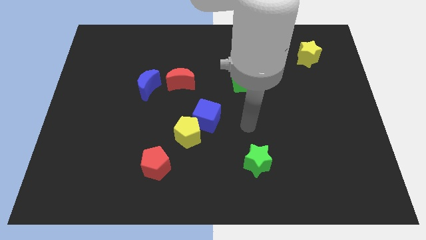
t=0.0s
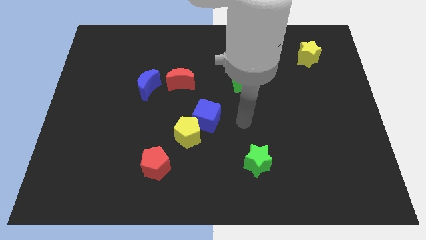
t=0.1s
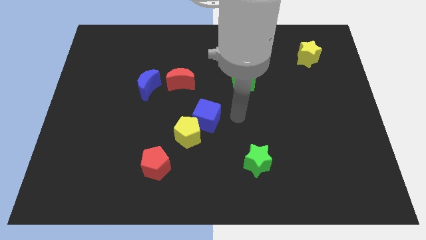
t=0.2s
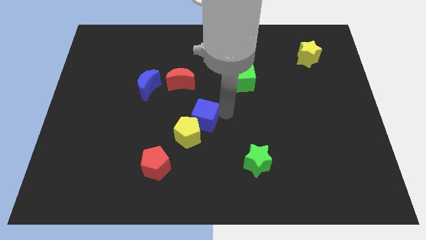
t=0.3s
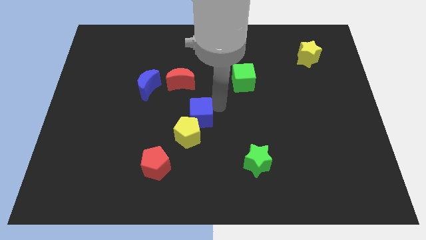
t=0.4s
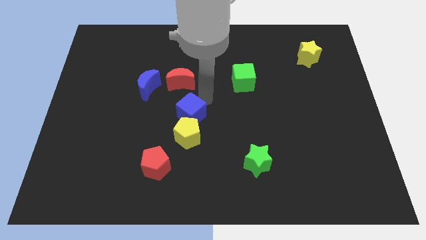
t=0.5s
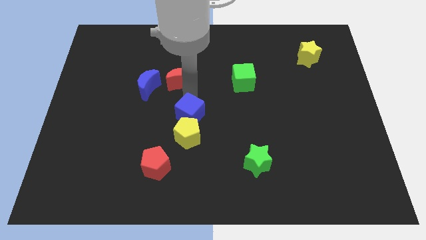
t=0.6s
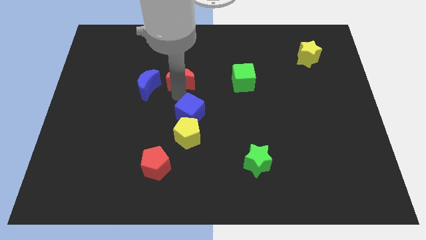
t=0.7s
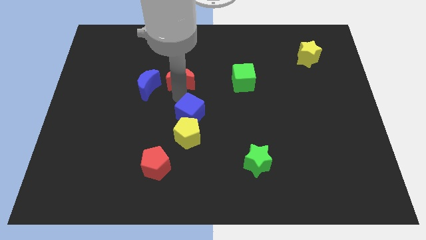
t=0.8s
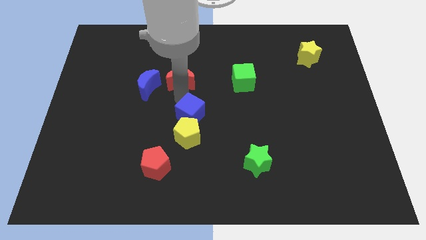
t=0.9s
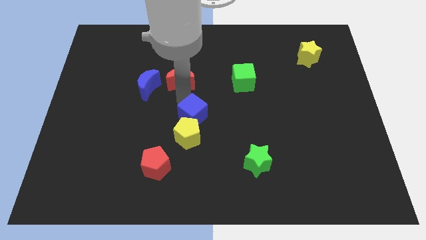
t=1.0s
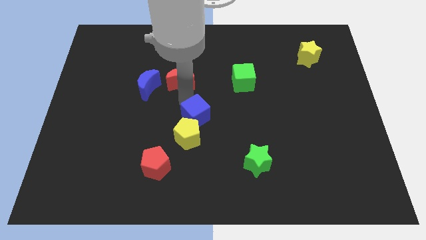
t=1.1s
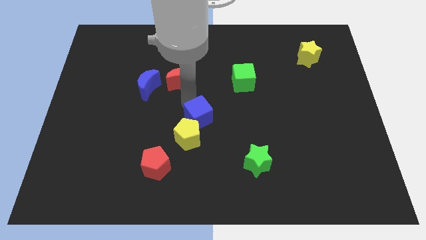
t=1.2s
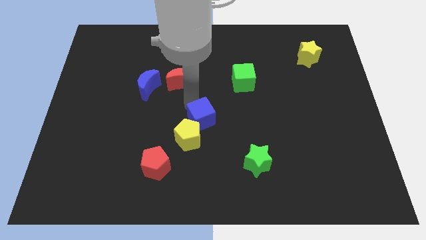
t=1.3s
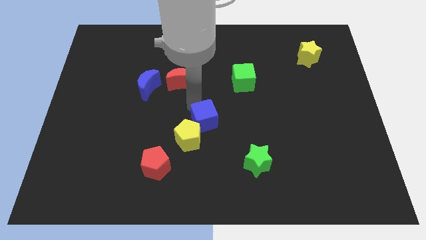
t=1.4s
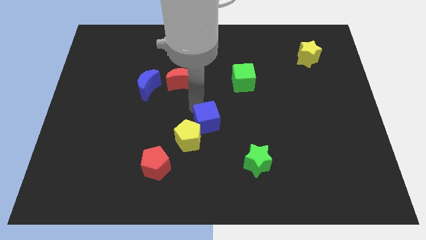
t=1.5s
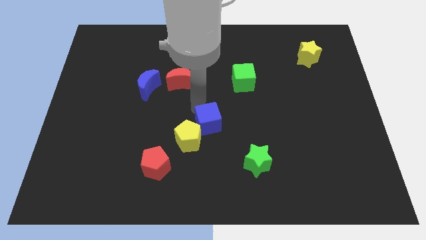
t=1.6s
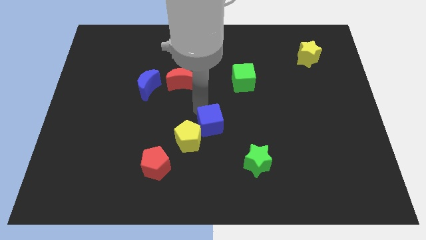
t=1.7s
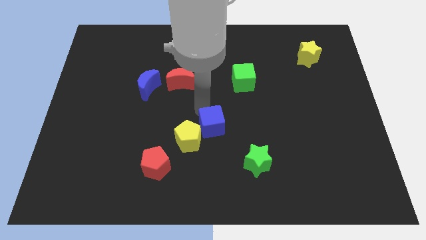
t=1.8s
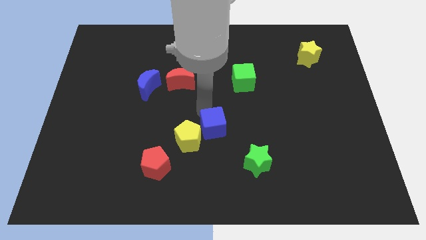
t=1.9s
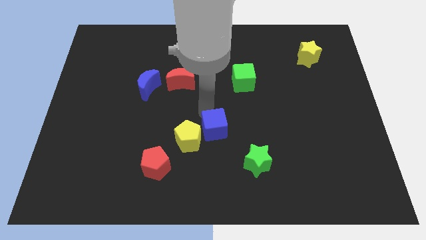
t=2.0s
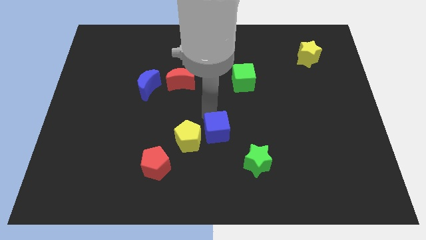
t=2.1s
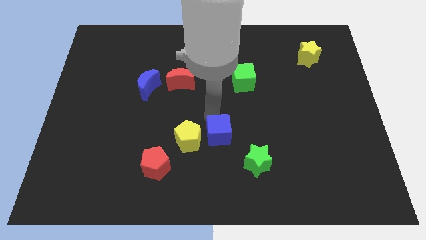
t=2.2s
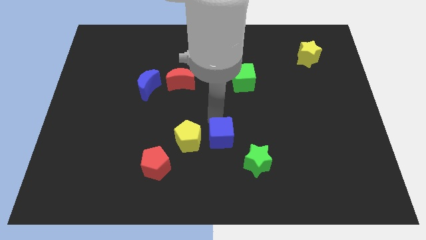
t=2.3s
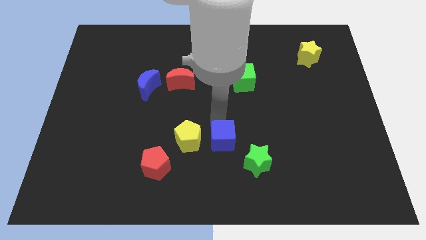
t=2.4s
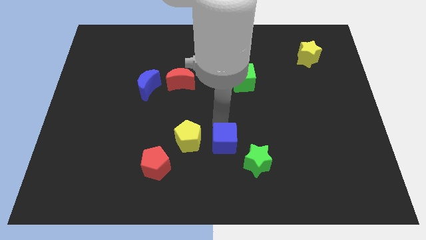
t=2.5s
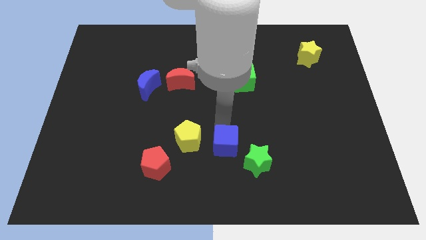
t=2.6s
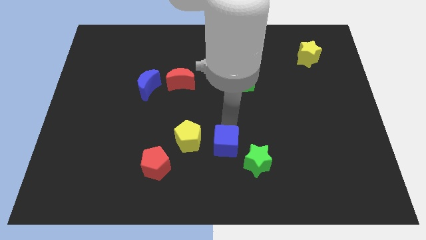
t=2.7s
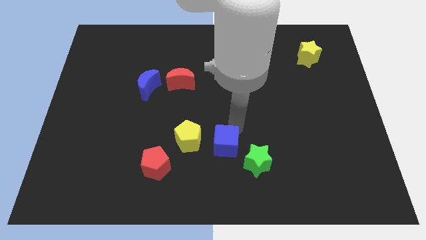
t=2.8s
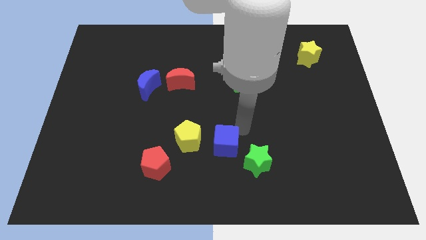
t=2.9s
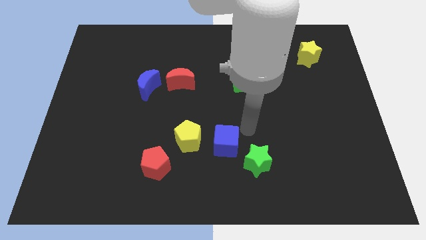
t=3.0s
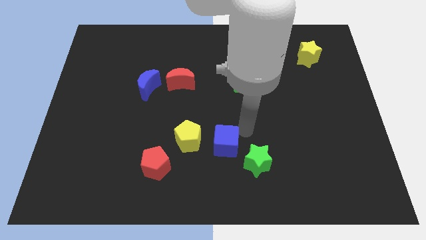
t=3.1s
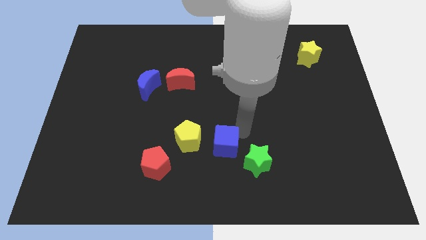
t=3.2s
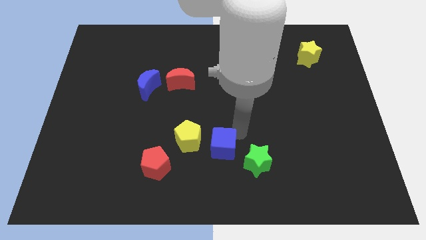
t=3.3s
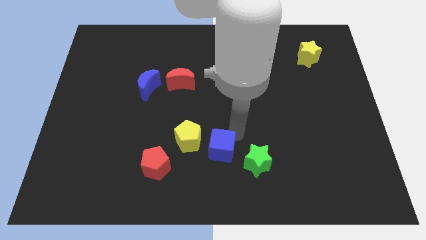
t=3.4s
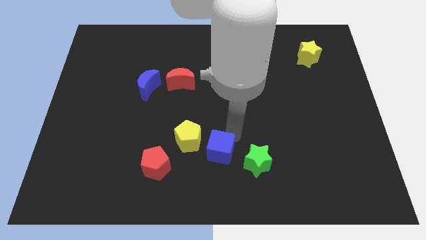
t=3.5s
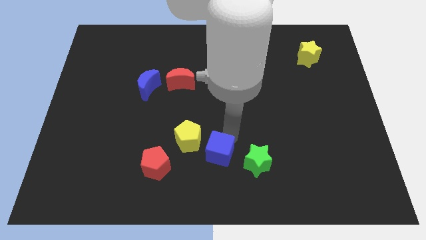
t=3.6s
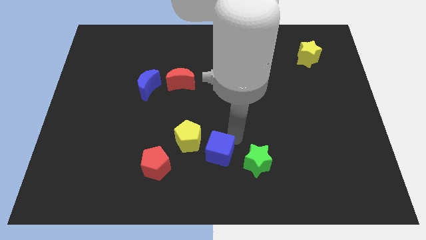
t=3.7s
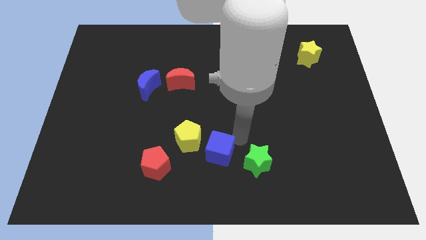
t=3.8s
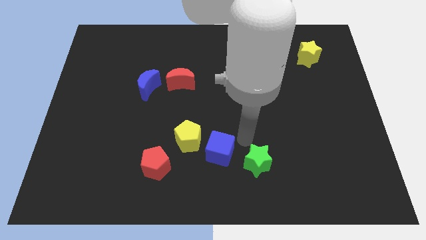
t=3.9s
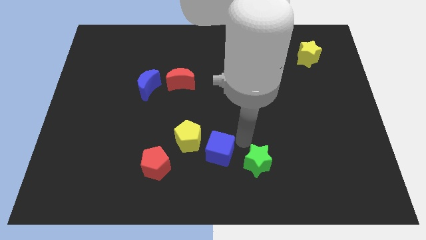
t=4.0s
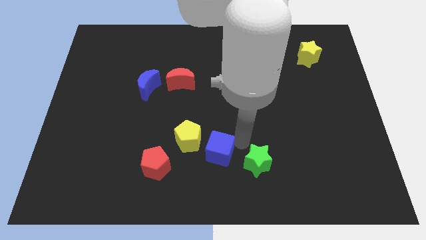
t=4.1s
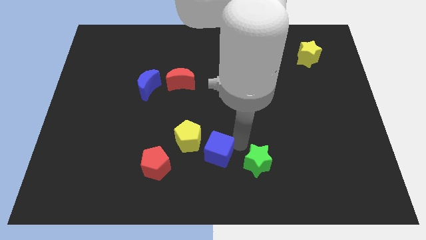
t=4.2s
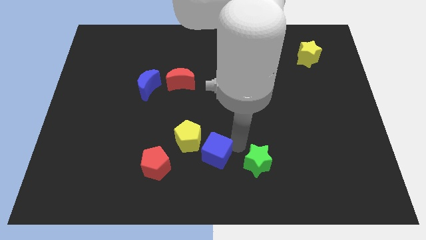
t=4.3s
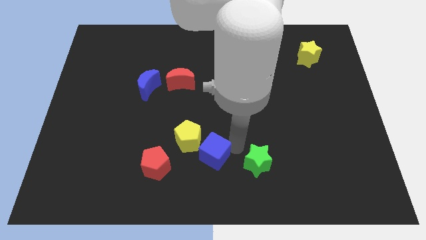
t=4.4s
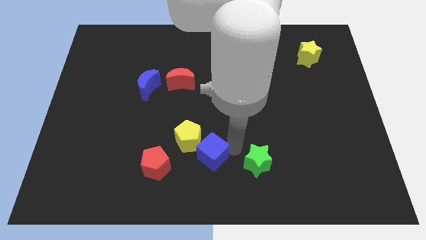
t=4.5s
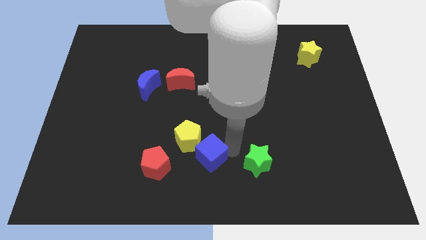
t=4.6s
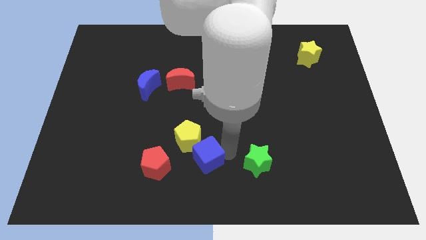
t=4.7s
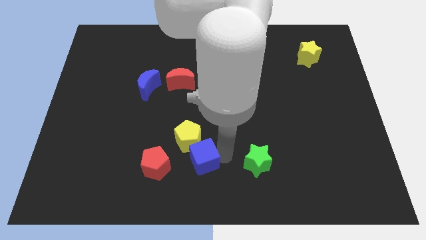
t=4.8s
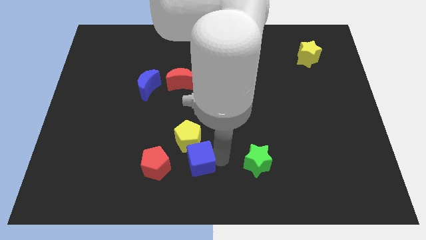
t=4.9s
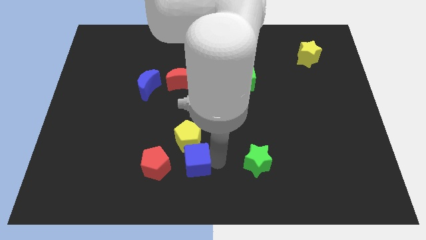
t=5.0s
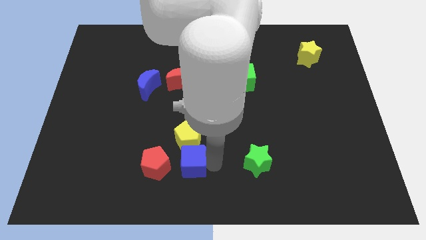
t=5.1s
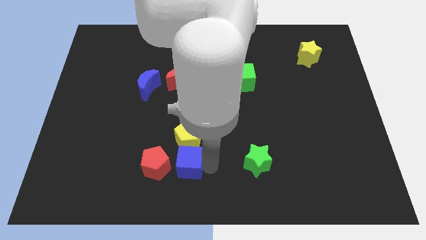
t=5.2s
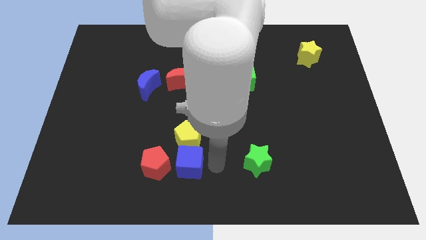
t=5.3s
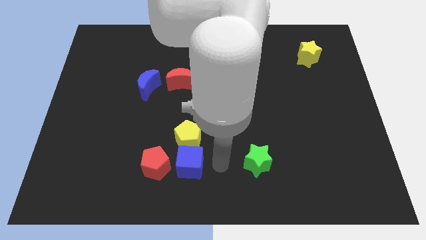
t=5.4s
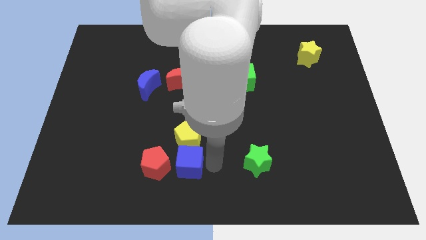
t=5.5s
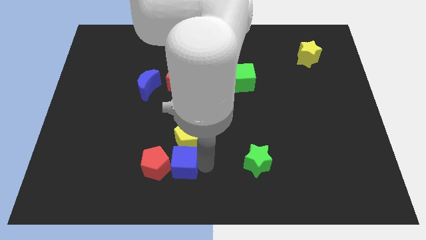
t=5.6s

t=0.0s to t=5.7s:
put the blue cube close to the red pentagon

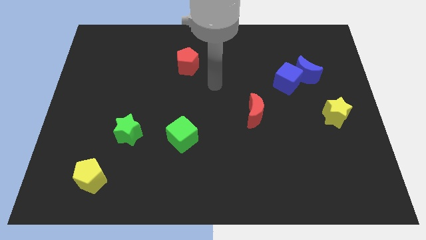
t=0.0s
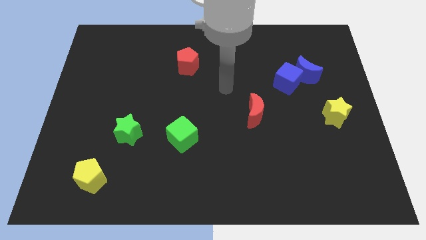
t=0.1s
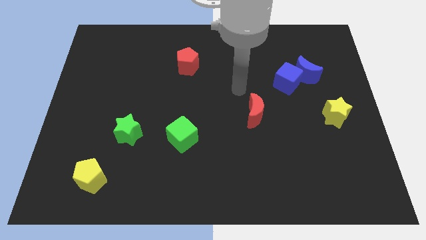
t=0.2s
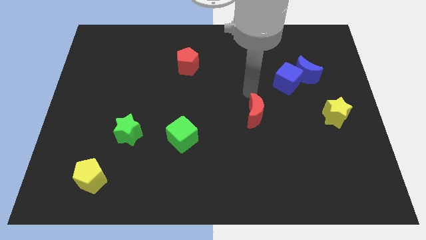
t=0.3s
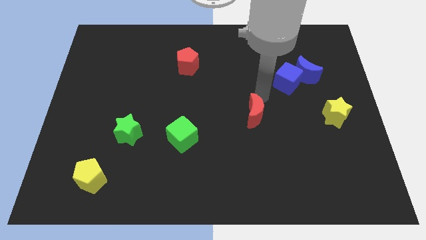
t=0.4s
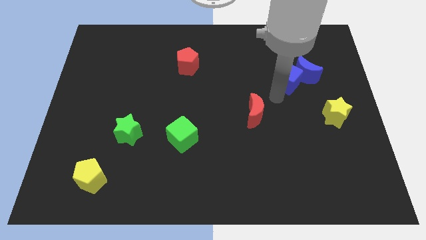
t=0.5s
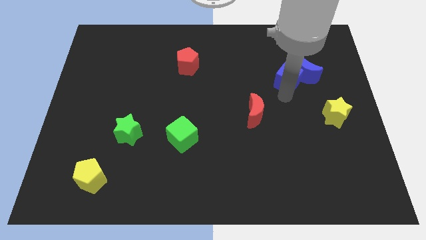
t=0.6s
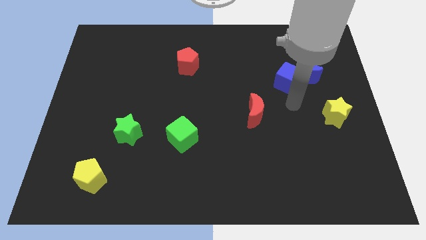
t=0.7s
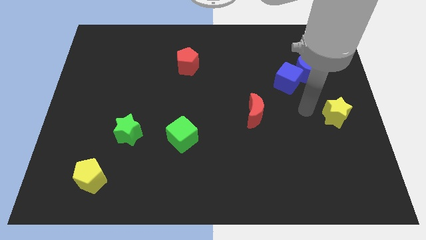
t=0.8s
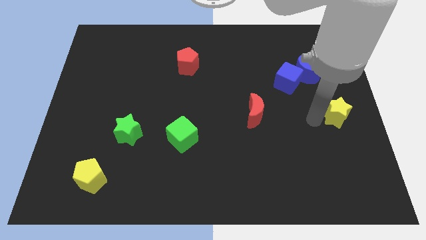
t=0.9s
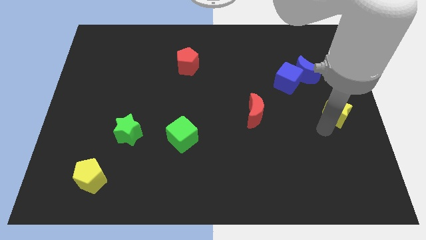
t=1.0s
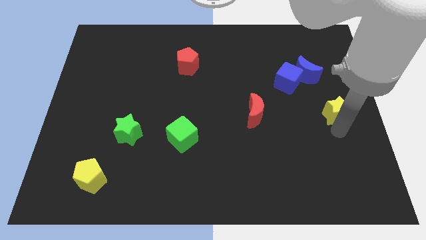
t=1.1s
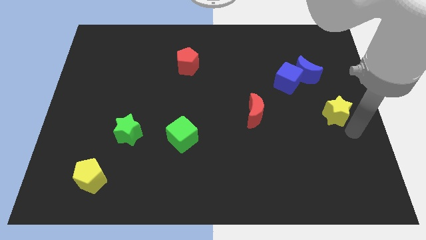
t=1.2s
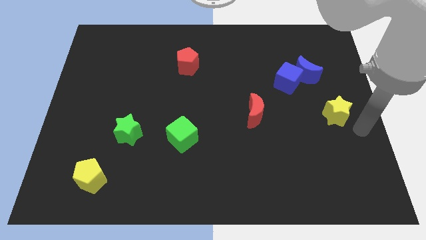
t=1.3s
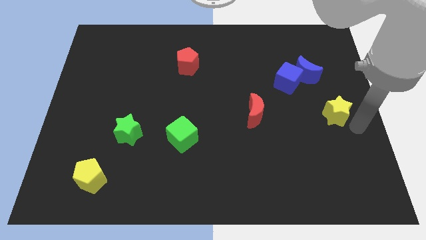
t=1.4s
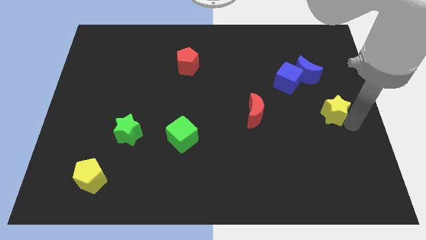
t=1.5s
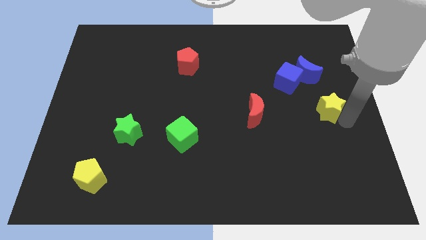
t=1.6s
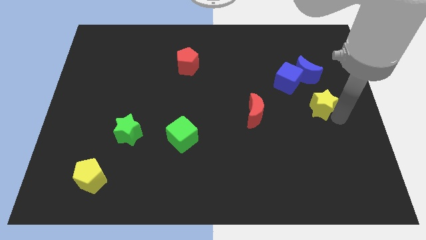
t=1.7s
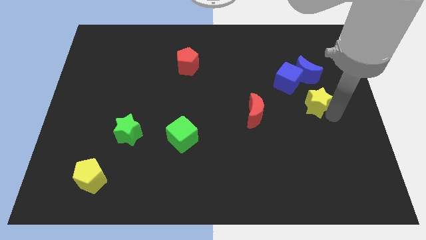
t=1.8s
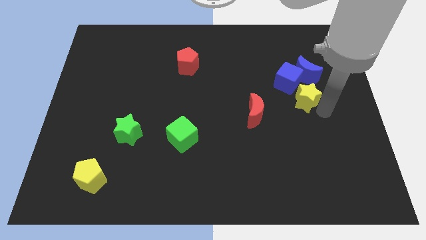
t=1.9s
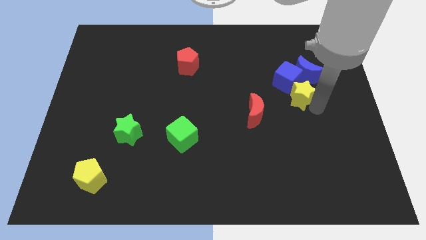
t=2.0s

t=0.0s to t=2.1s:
move the yellow star close to the blue cube
